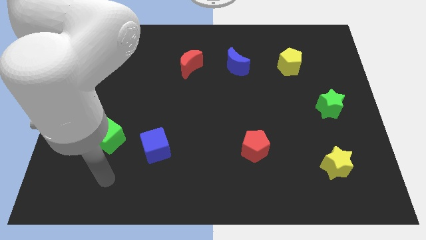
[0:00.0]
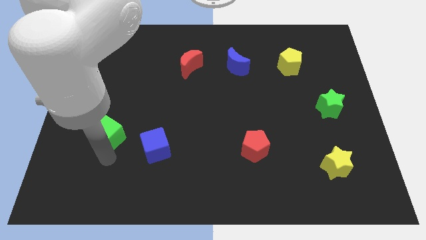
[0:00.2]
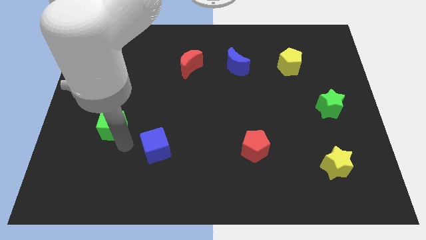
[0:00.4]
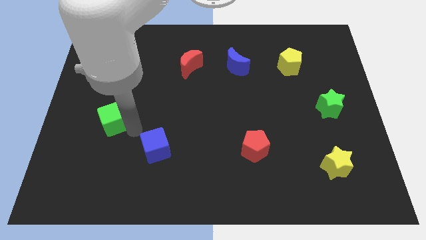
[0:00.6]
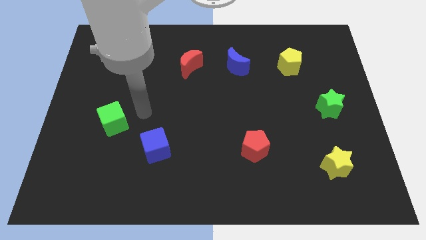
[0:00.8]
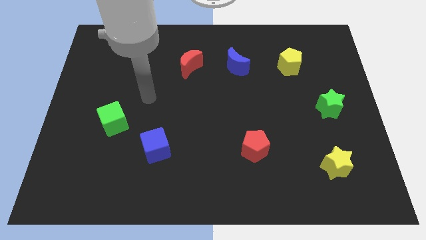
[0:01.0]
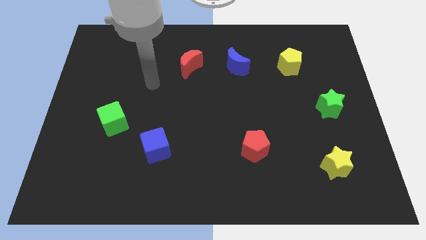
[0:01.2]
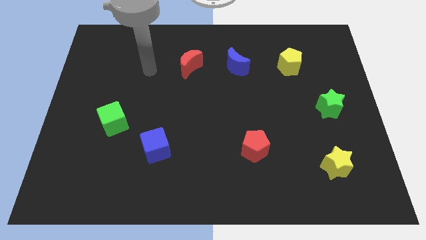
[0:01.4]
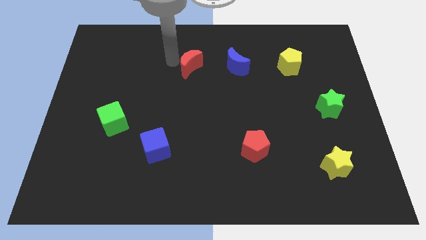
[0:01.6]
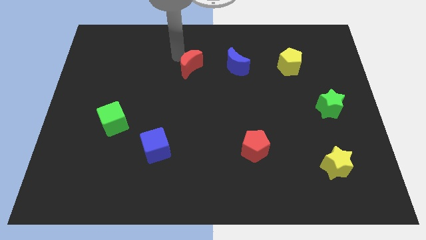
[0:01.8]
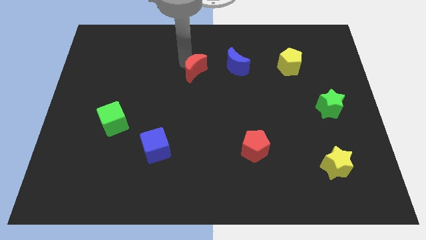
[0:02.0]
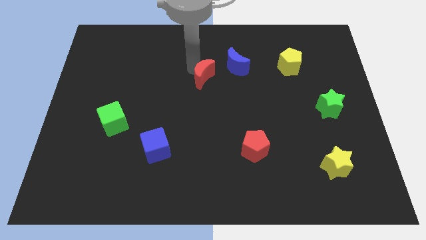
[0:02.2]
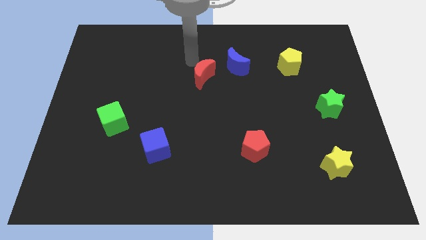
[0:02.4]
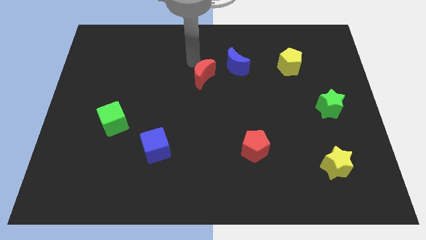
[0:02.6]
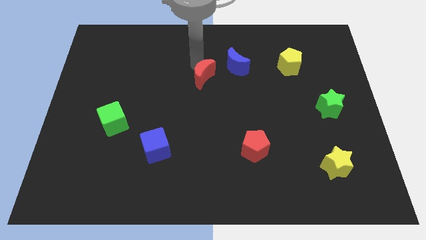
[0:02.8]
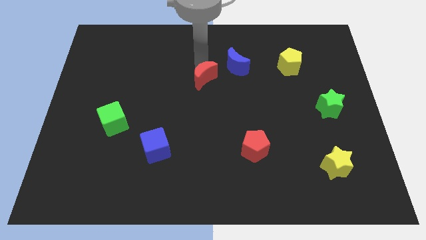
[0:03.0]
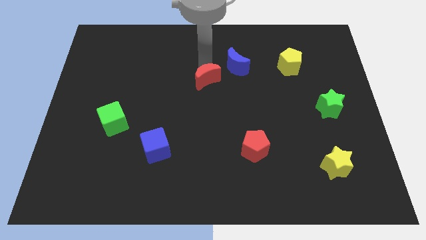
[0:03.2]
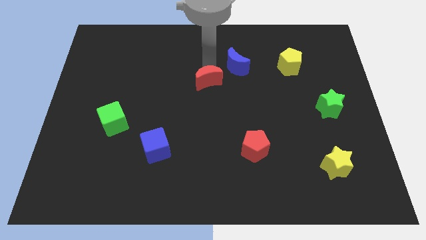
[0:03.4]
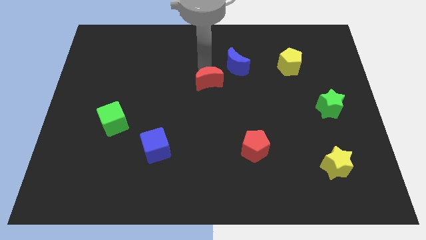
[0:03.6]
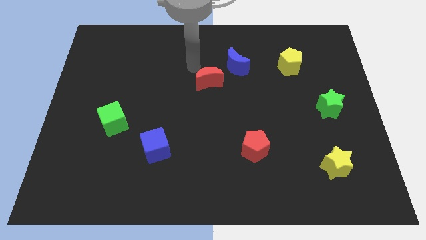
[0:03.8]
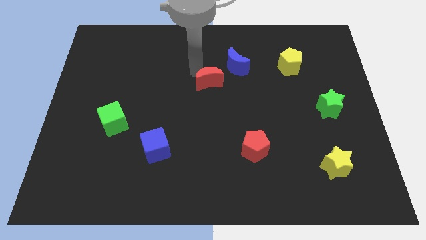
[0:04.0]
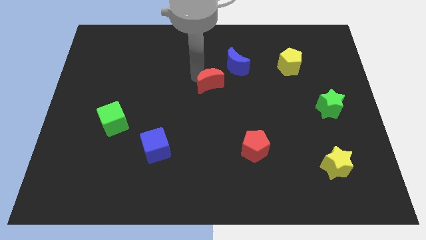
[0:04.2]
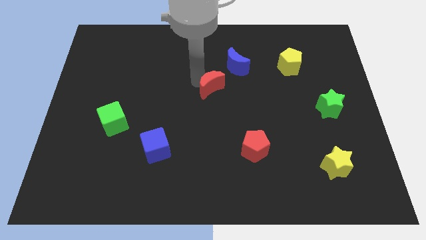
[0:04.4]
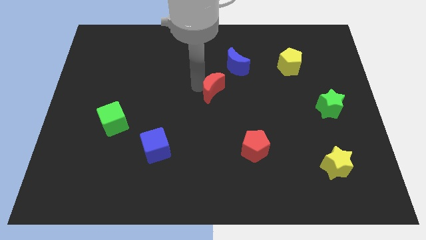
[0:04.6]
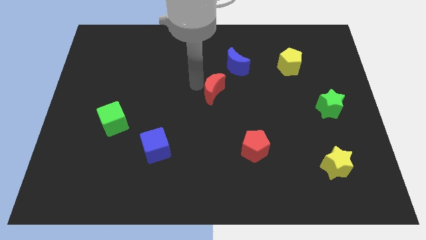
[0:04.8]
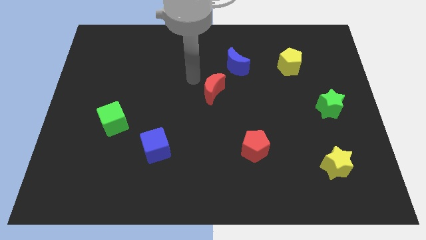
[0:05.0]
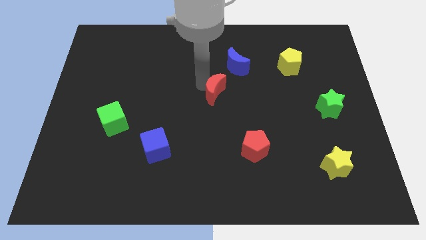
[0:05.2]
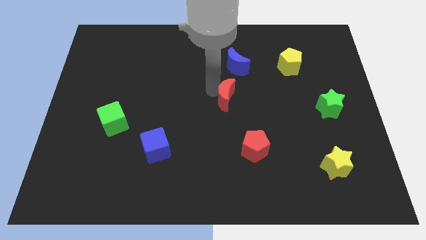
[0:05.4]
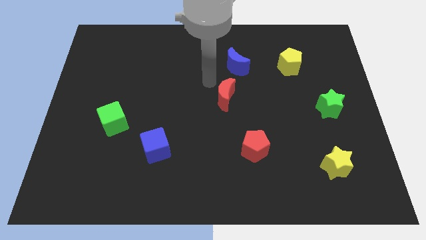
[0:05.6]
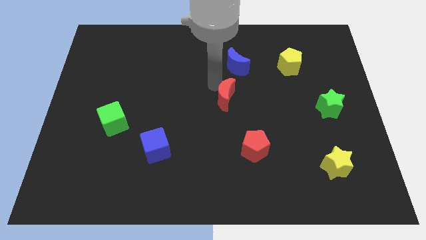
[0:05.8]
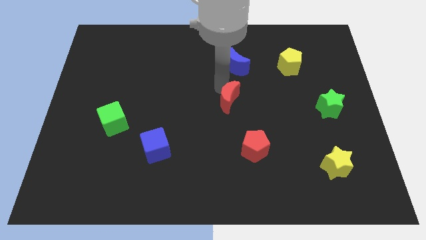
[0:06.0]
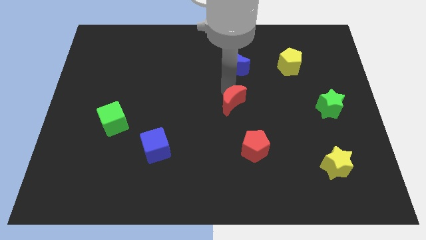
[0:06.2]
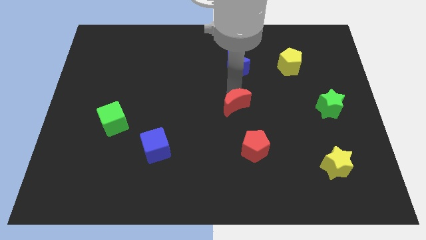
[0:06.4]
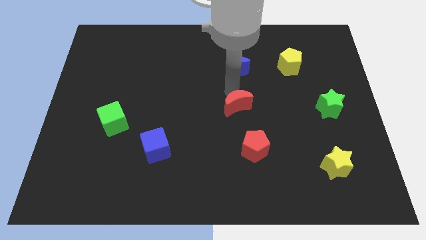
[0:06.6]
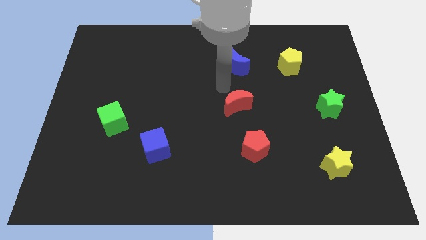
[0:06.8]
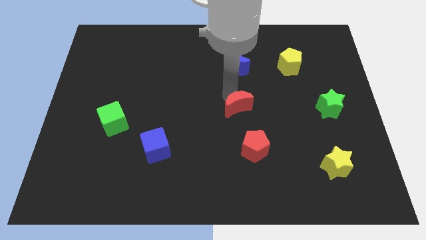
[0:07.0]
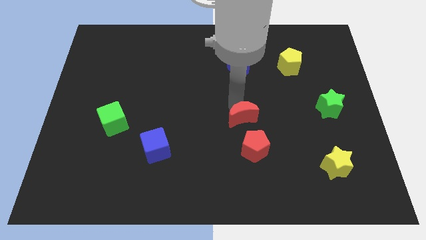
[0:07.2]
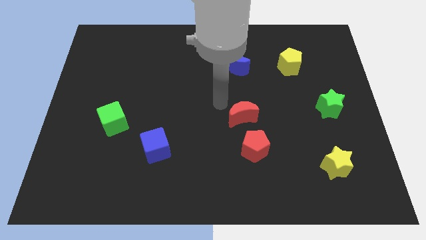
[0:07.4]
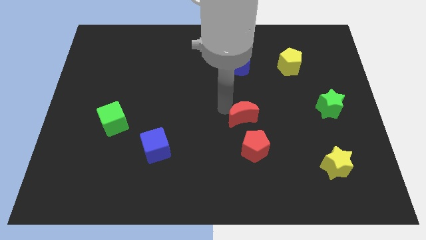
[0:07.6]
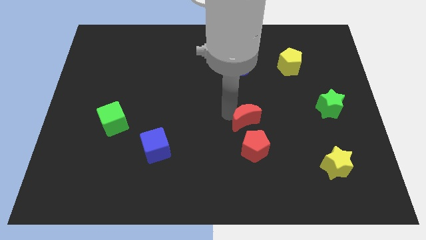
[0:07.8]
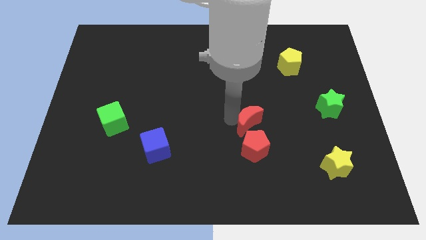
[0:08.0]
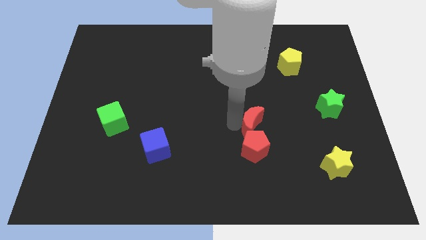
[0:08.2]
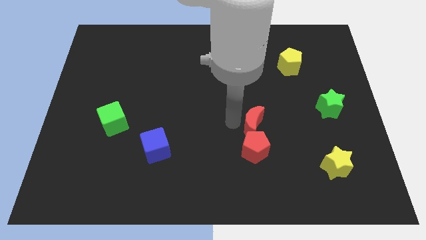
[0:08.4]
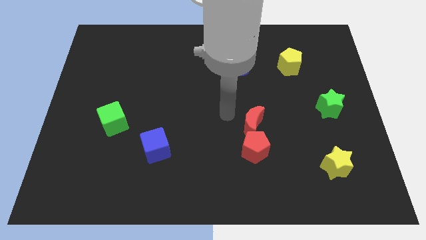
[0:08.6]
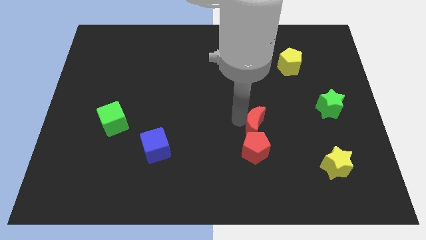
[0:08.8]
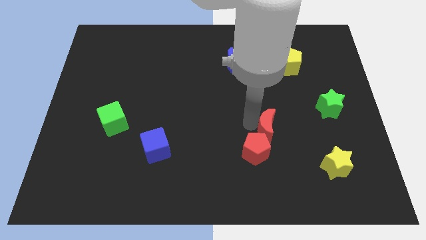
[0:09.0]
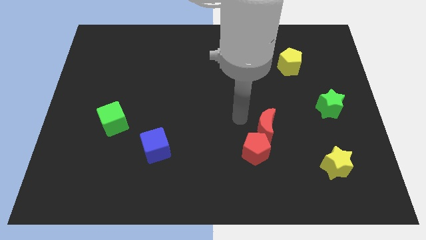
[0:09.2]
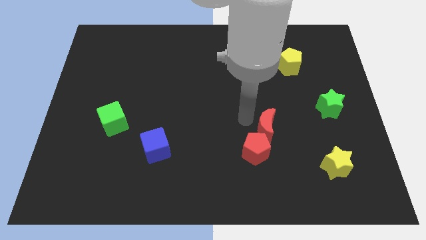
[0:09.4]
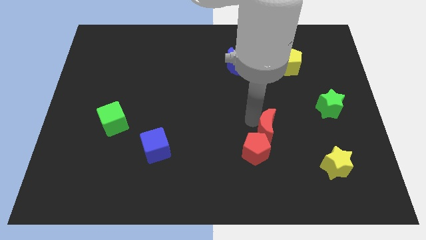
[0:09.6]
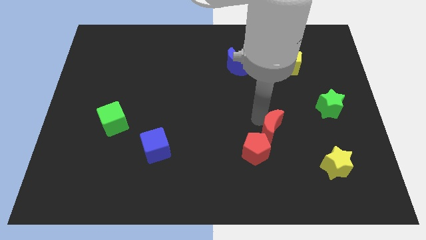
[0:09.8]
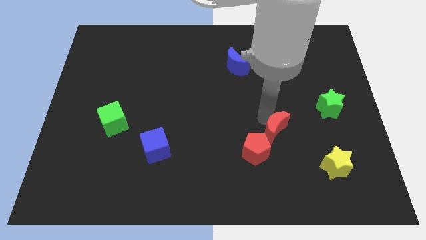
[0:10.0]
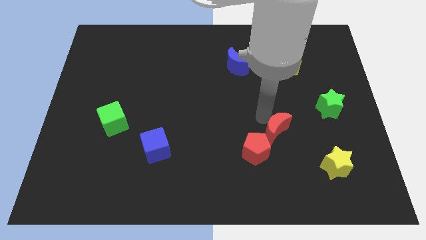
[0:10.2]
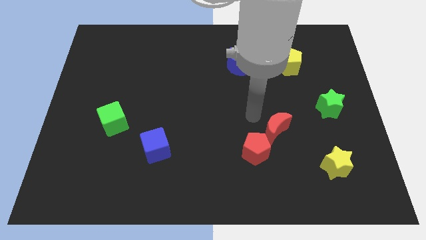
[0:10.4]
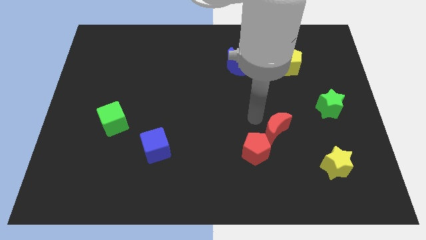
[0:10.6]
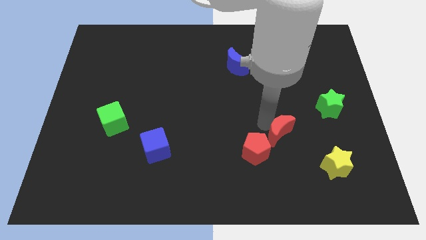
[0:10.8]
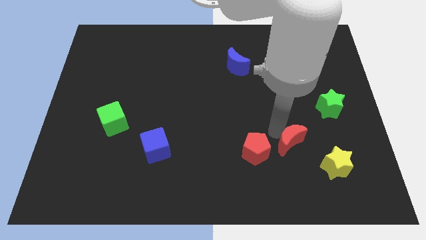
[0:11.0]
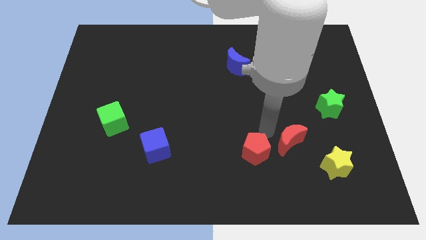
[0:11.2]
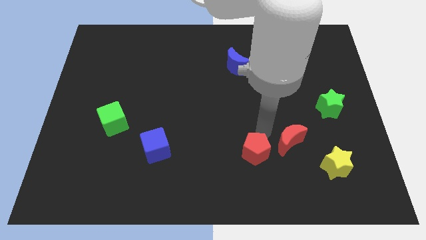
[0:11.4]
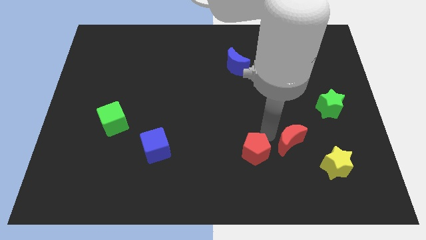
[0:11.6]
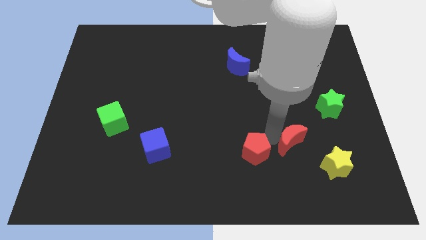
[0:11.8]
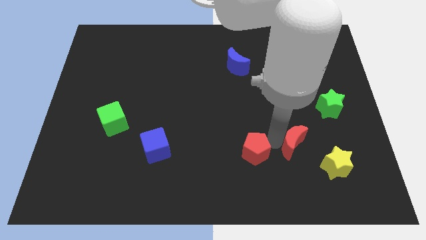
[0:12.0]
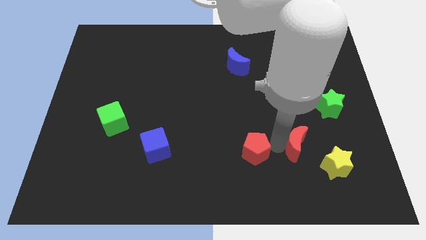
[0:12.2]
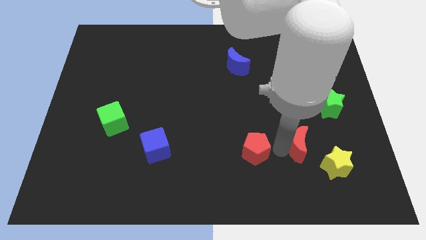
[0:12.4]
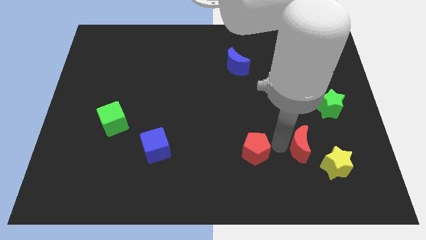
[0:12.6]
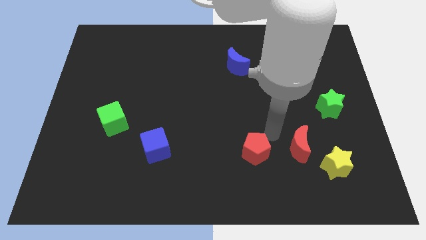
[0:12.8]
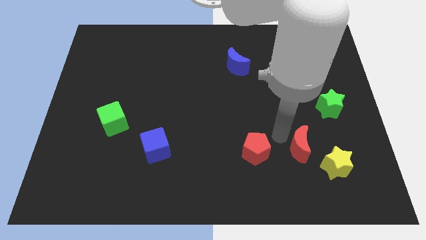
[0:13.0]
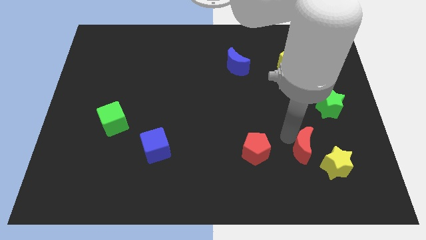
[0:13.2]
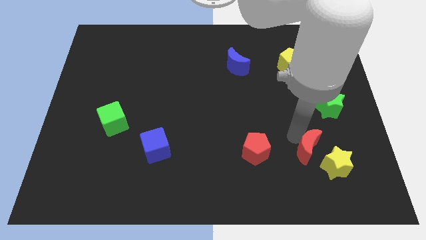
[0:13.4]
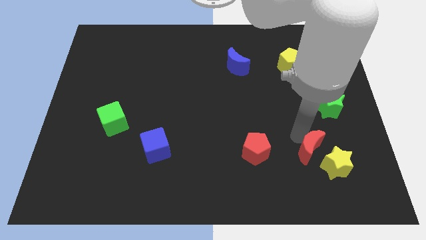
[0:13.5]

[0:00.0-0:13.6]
slide the red moon to the yellow star
